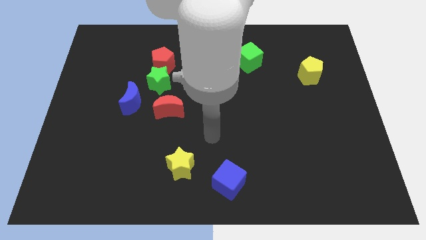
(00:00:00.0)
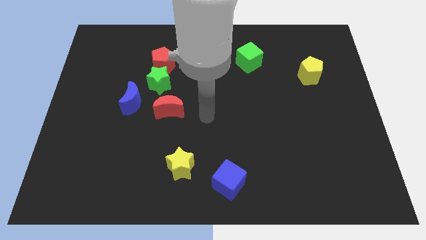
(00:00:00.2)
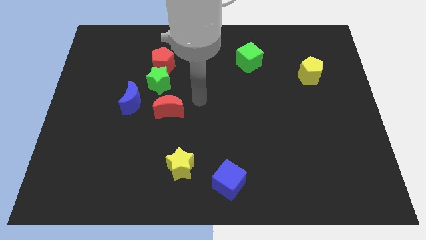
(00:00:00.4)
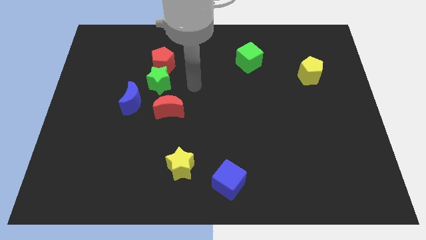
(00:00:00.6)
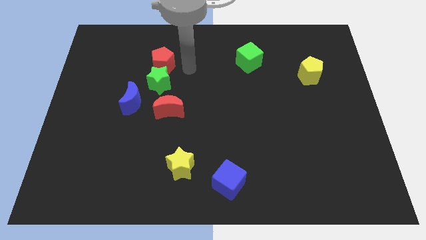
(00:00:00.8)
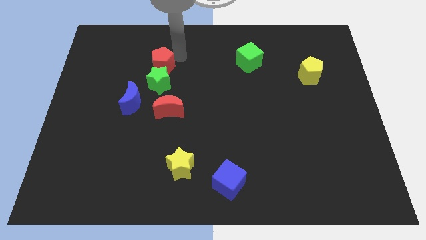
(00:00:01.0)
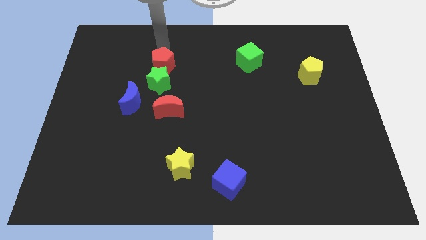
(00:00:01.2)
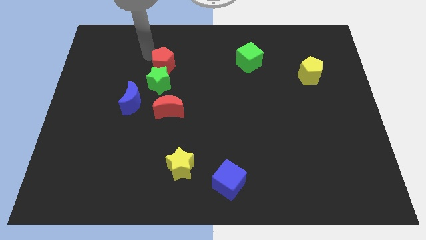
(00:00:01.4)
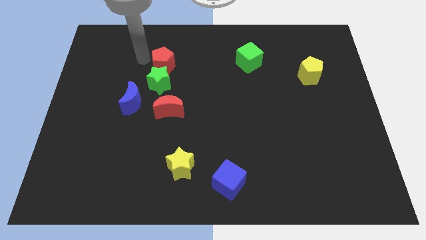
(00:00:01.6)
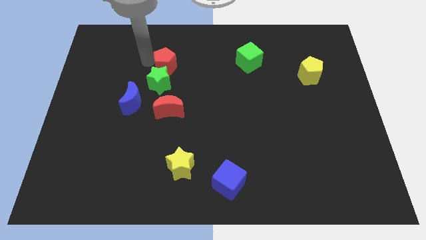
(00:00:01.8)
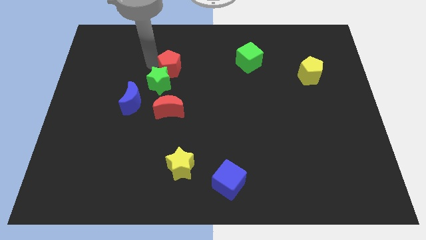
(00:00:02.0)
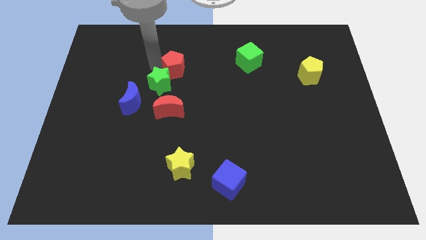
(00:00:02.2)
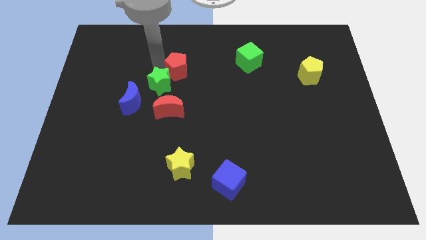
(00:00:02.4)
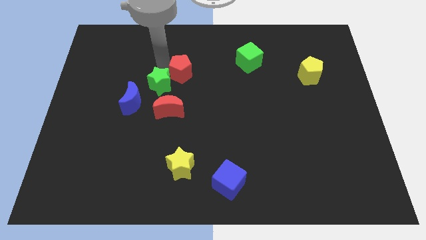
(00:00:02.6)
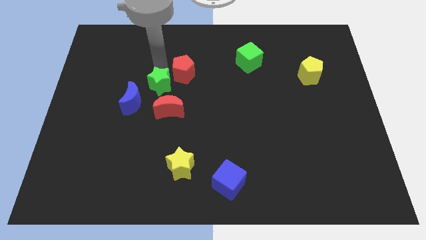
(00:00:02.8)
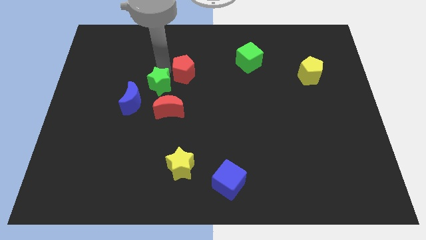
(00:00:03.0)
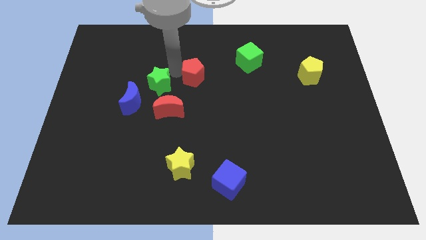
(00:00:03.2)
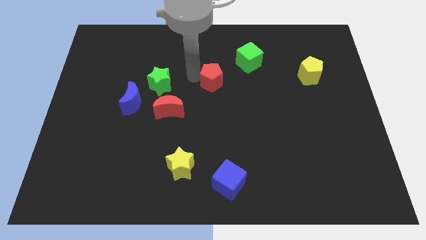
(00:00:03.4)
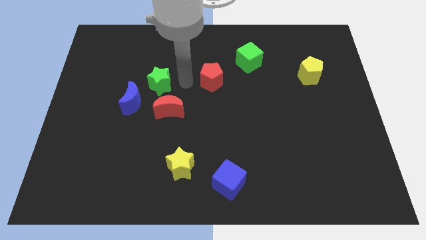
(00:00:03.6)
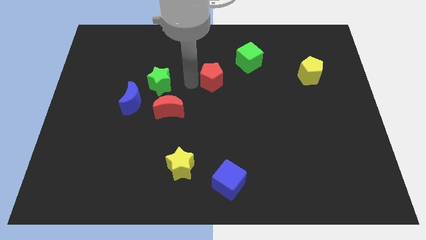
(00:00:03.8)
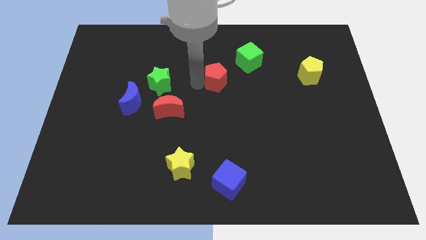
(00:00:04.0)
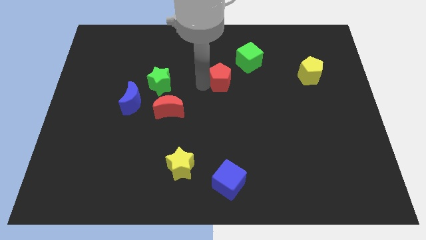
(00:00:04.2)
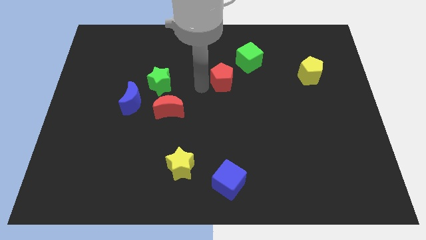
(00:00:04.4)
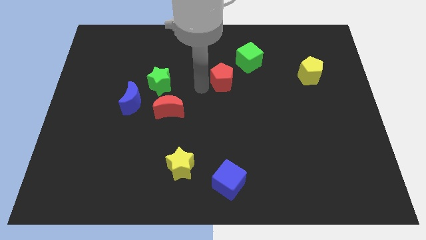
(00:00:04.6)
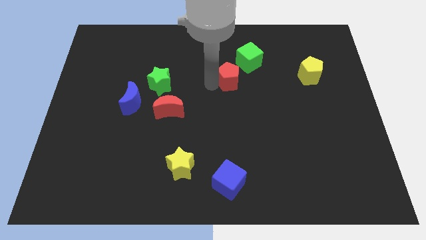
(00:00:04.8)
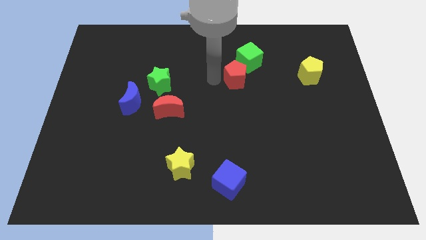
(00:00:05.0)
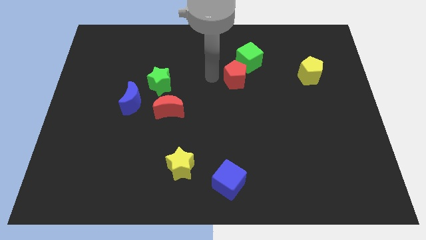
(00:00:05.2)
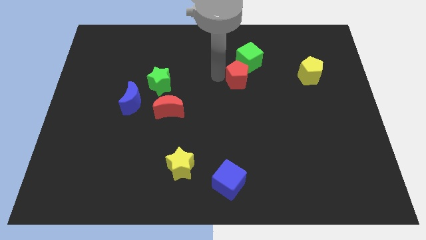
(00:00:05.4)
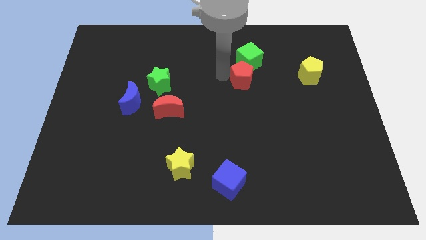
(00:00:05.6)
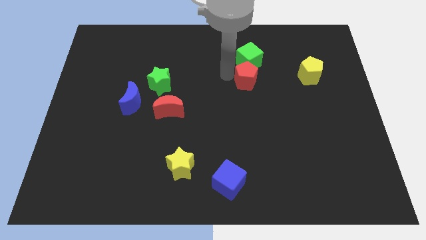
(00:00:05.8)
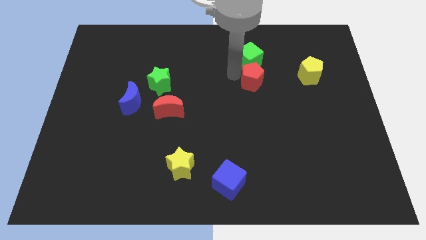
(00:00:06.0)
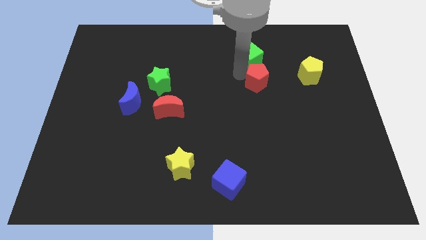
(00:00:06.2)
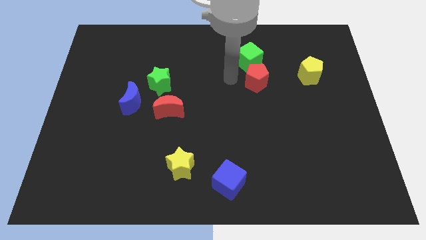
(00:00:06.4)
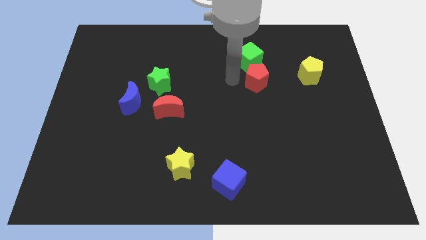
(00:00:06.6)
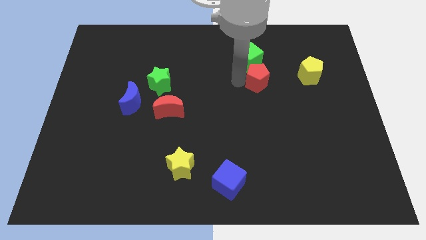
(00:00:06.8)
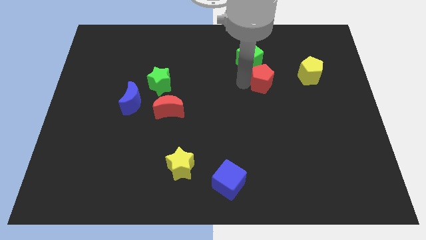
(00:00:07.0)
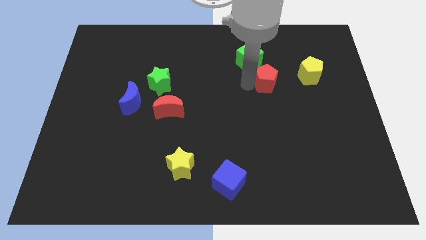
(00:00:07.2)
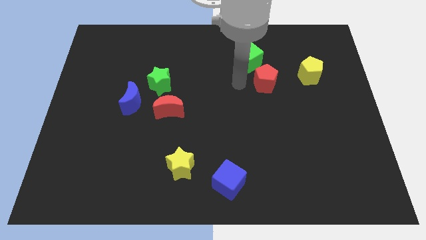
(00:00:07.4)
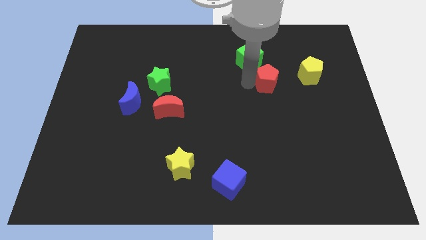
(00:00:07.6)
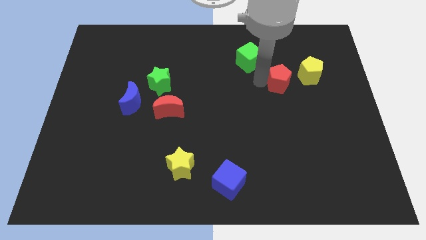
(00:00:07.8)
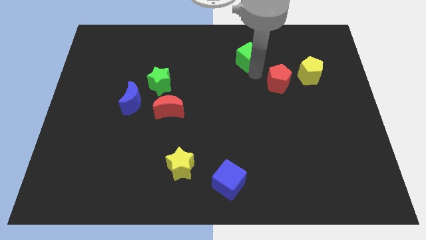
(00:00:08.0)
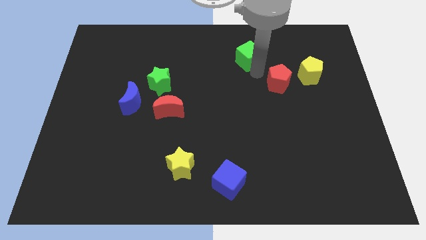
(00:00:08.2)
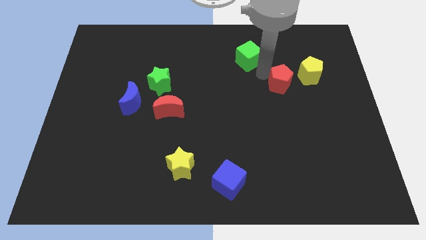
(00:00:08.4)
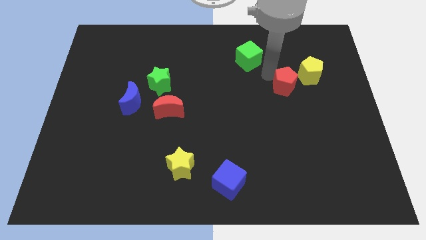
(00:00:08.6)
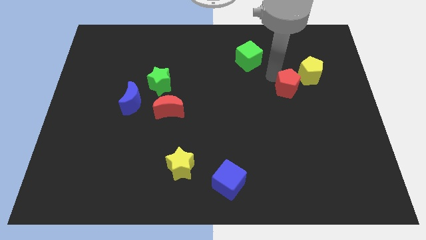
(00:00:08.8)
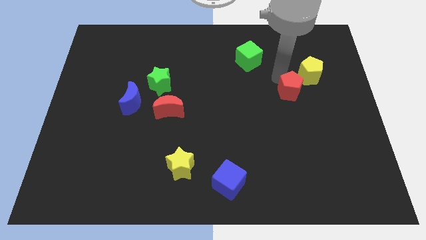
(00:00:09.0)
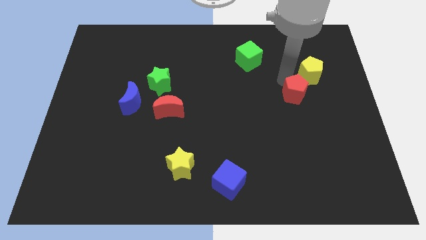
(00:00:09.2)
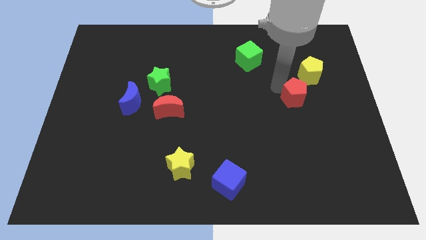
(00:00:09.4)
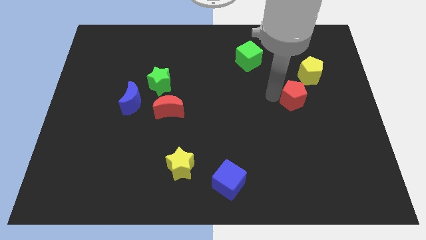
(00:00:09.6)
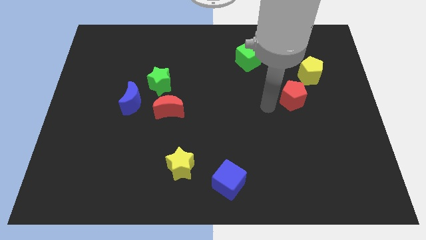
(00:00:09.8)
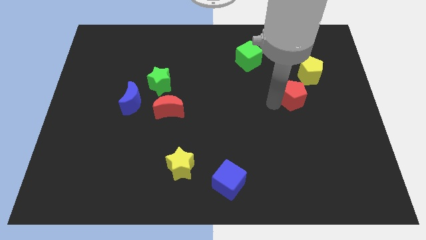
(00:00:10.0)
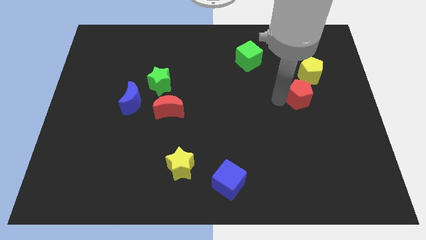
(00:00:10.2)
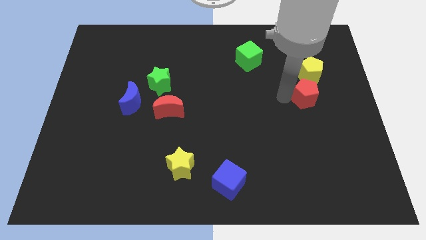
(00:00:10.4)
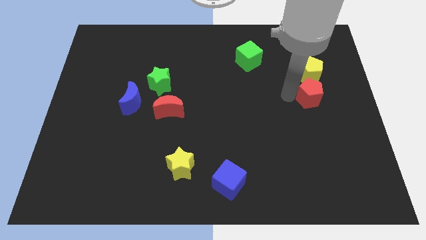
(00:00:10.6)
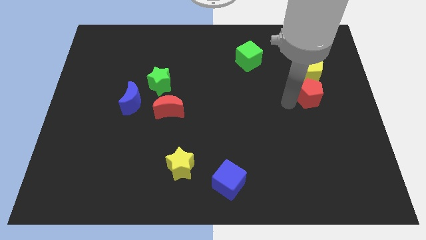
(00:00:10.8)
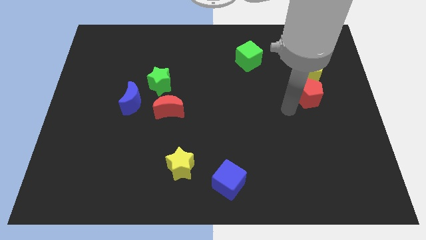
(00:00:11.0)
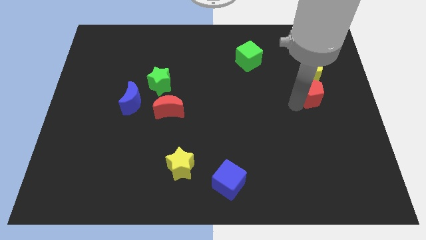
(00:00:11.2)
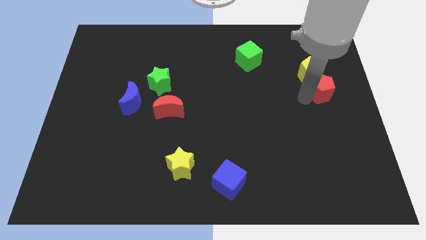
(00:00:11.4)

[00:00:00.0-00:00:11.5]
put the red pentagon to the center right

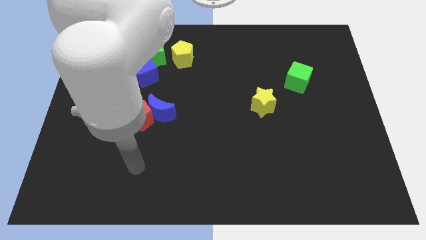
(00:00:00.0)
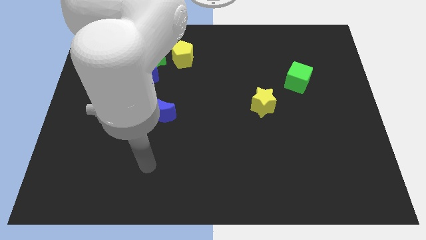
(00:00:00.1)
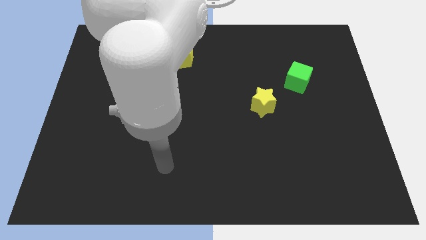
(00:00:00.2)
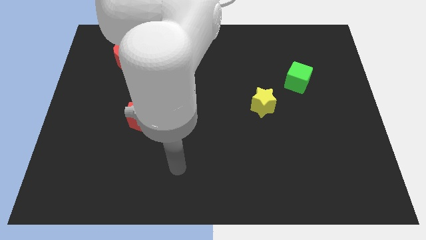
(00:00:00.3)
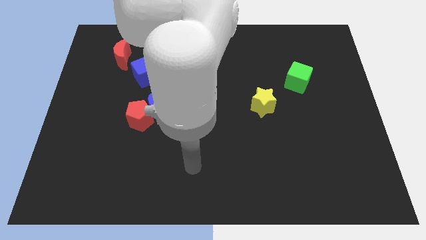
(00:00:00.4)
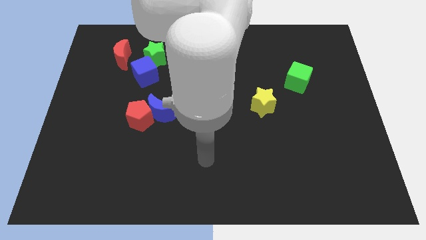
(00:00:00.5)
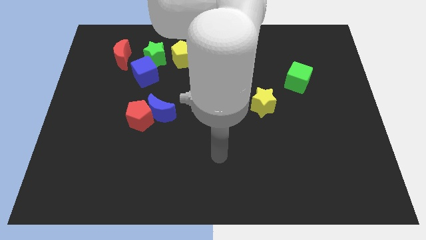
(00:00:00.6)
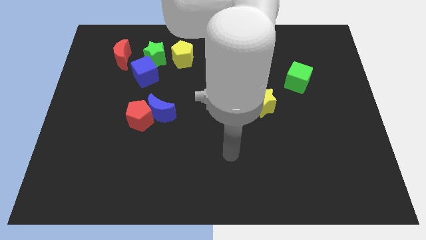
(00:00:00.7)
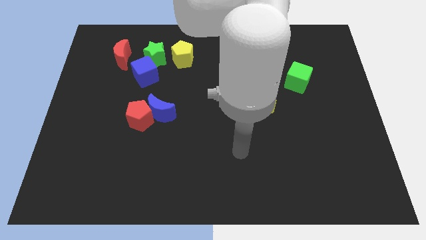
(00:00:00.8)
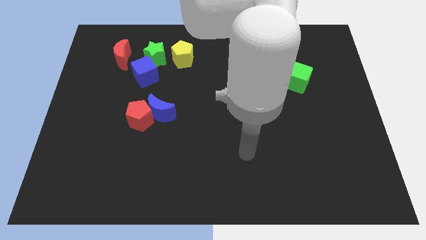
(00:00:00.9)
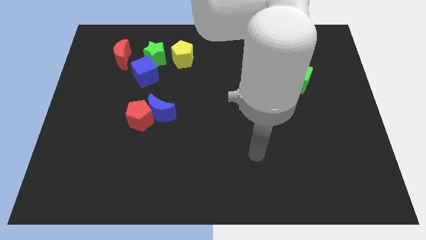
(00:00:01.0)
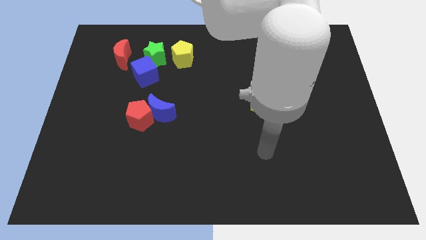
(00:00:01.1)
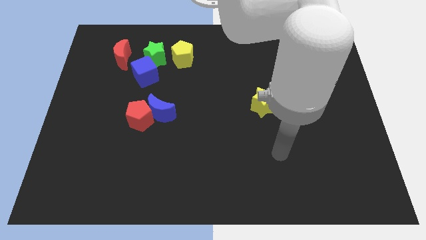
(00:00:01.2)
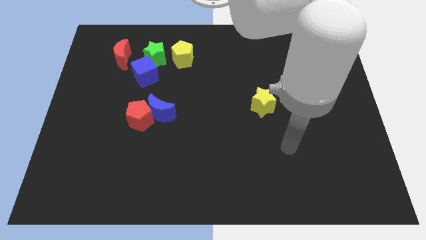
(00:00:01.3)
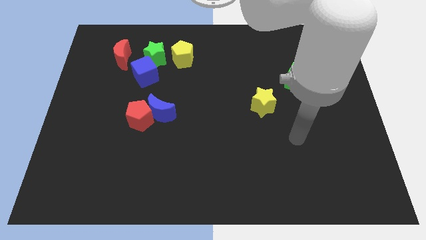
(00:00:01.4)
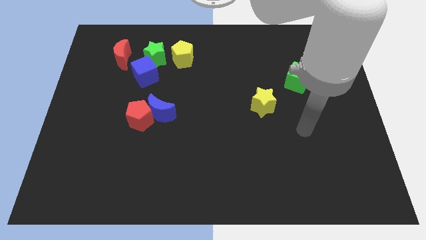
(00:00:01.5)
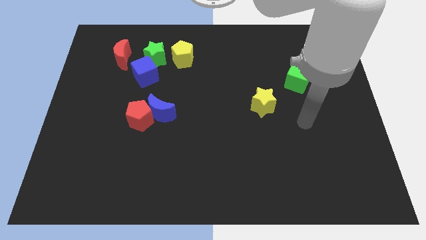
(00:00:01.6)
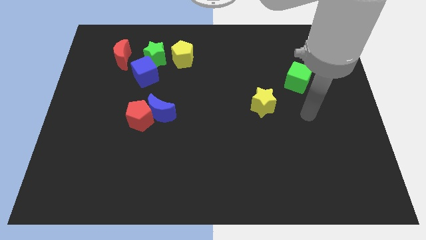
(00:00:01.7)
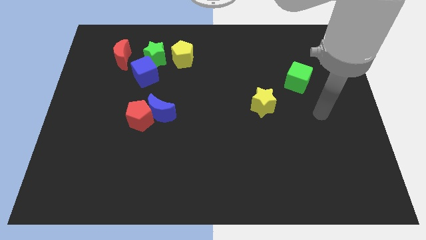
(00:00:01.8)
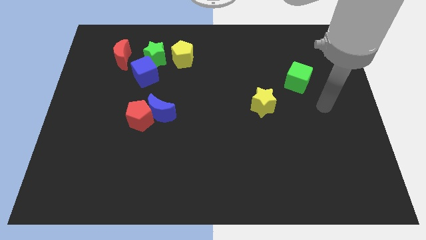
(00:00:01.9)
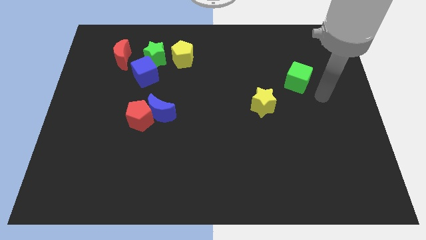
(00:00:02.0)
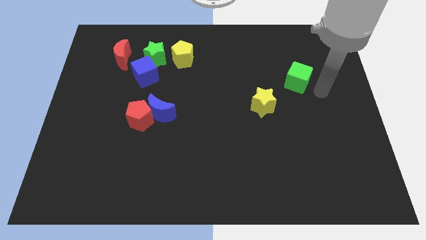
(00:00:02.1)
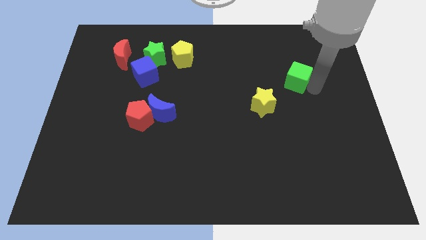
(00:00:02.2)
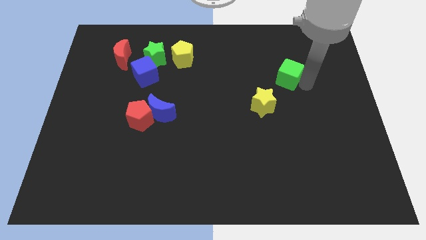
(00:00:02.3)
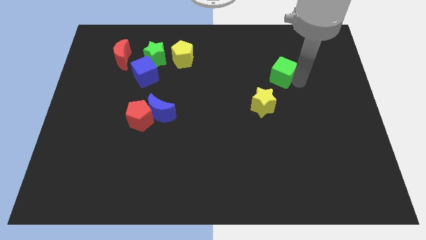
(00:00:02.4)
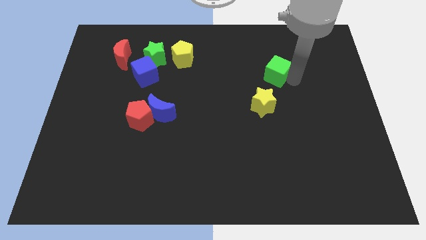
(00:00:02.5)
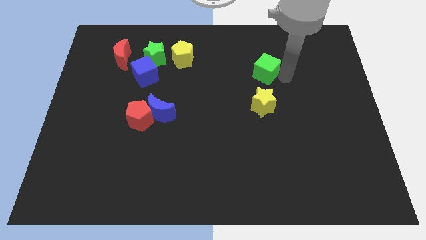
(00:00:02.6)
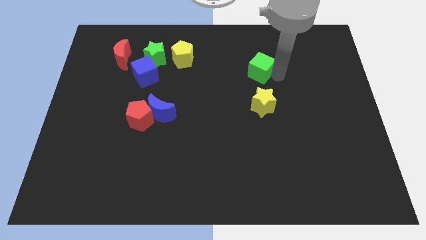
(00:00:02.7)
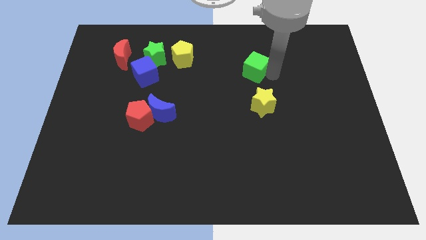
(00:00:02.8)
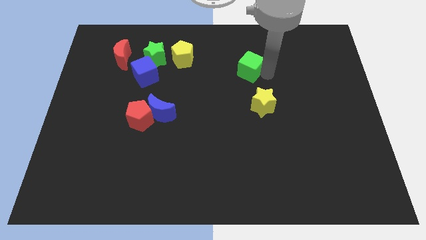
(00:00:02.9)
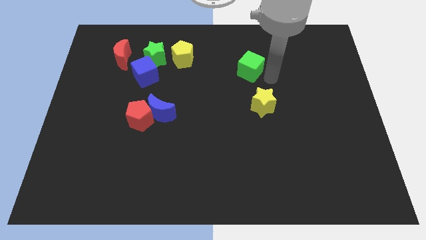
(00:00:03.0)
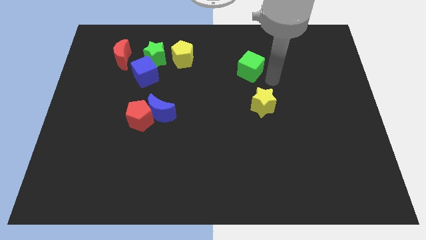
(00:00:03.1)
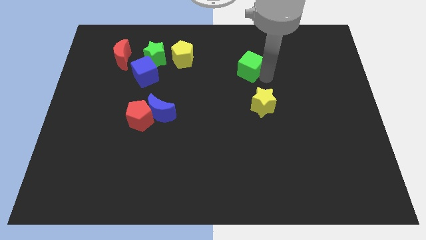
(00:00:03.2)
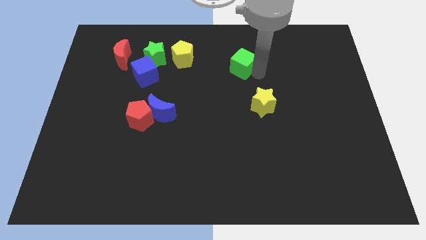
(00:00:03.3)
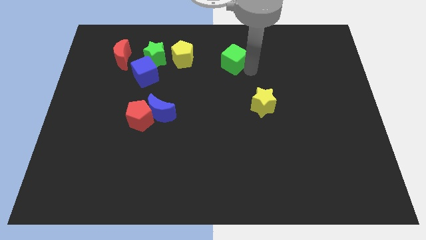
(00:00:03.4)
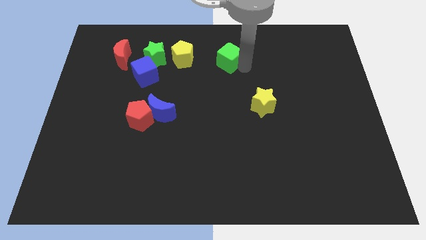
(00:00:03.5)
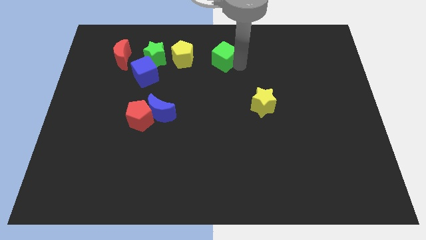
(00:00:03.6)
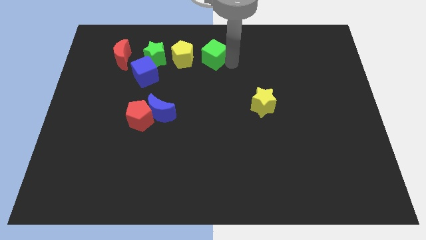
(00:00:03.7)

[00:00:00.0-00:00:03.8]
move the green cube to the top side
